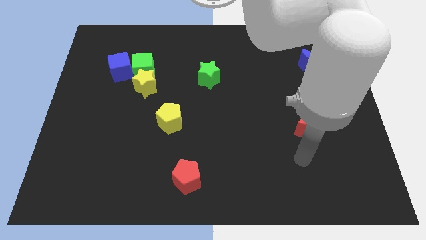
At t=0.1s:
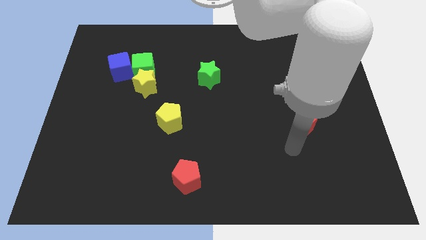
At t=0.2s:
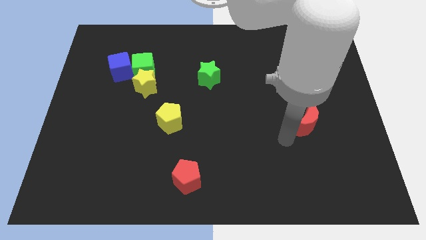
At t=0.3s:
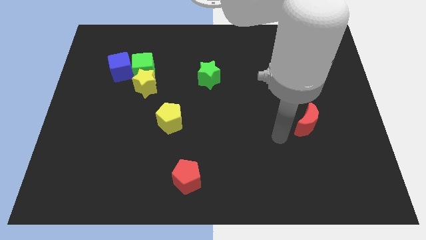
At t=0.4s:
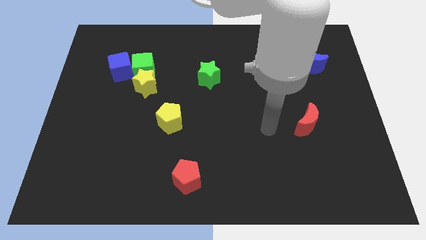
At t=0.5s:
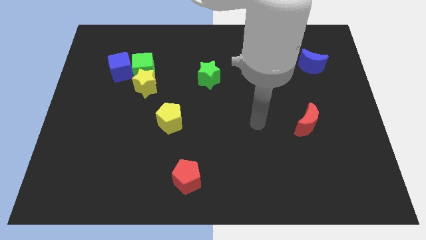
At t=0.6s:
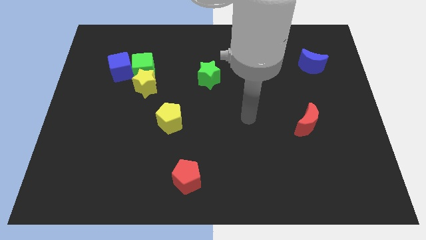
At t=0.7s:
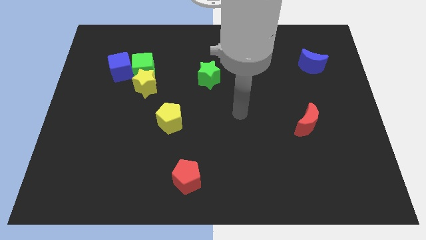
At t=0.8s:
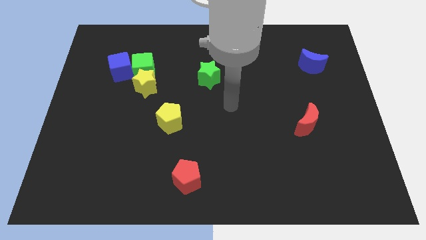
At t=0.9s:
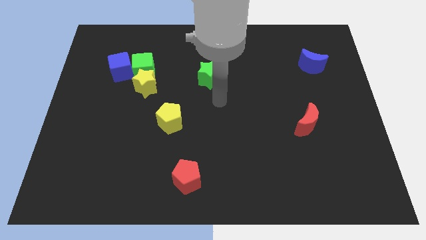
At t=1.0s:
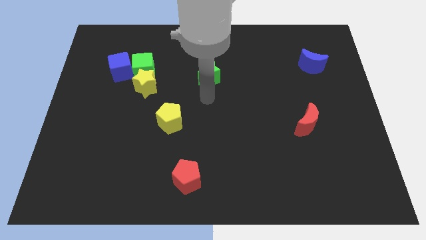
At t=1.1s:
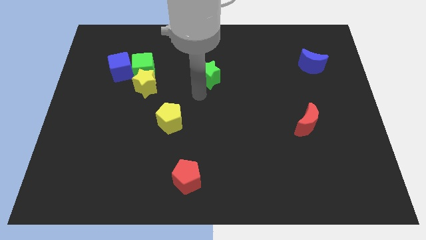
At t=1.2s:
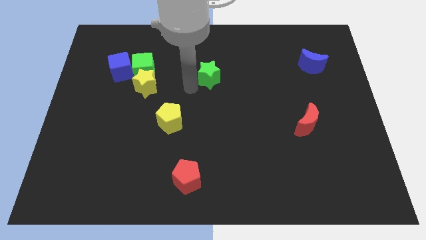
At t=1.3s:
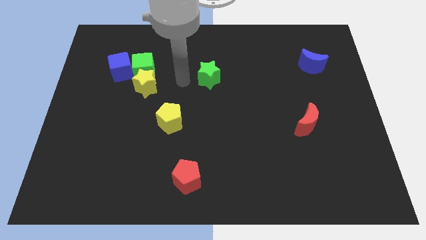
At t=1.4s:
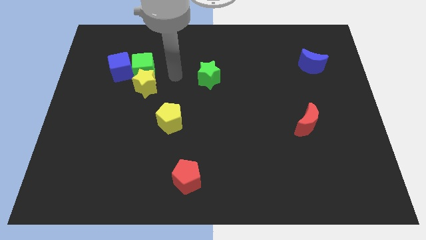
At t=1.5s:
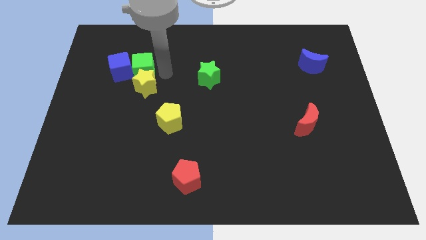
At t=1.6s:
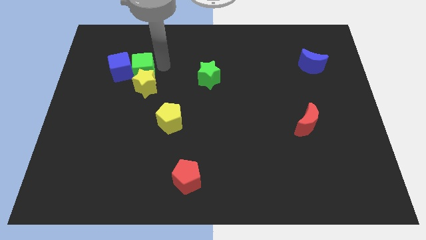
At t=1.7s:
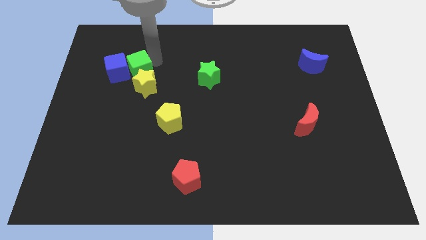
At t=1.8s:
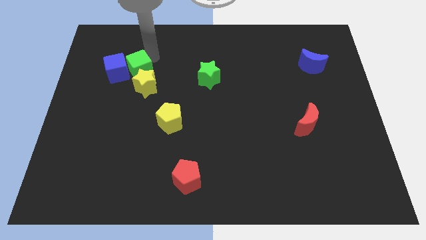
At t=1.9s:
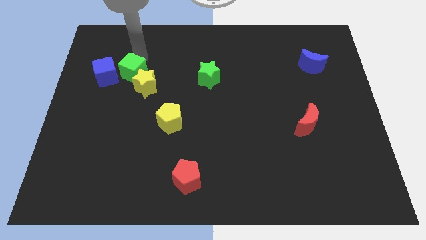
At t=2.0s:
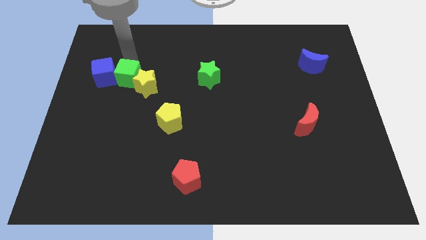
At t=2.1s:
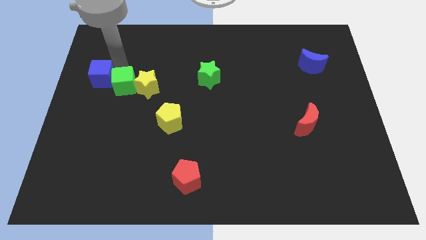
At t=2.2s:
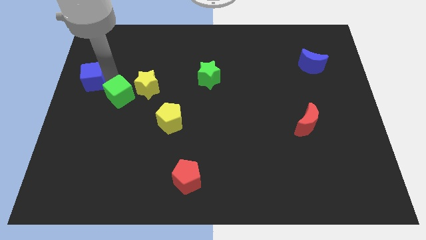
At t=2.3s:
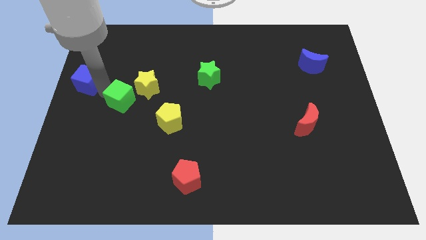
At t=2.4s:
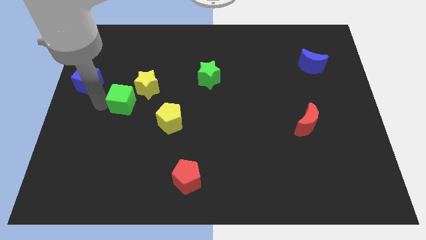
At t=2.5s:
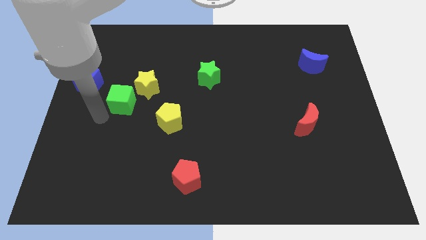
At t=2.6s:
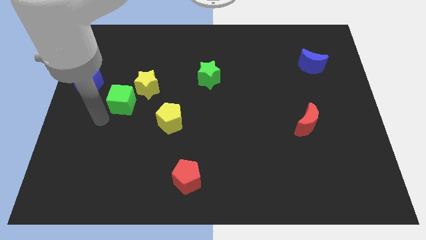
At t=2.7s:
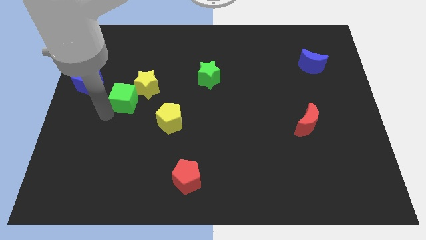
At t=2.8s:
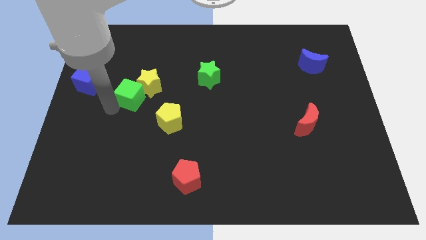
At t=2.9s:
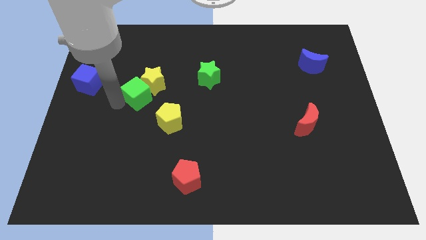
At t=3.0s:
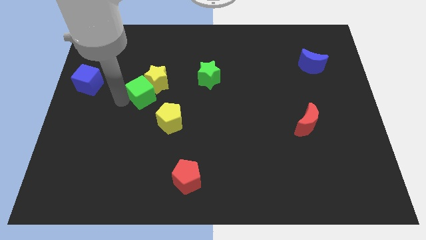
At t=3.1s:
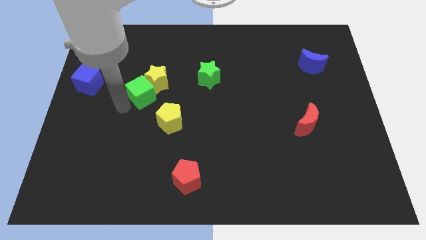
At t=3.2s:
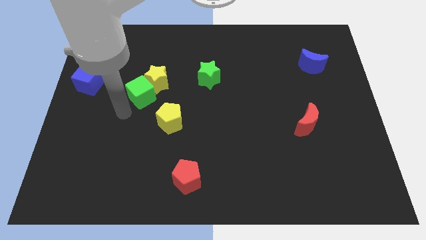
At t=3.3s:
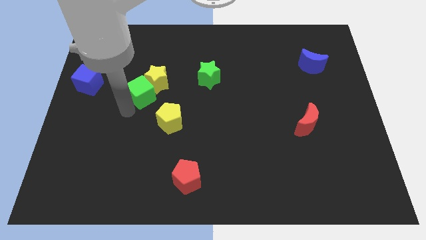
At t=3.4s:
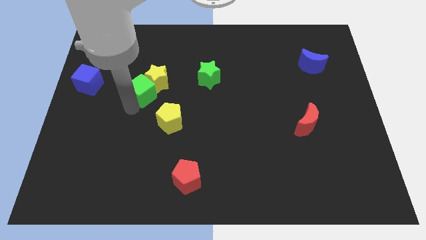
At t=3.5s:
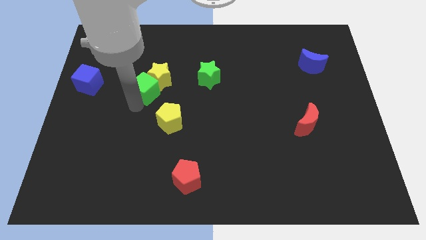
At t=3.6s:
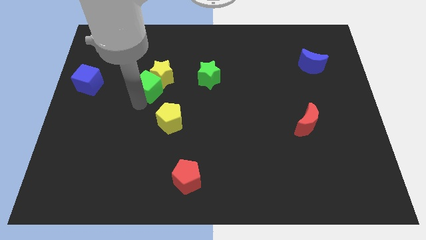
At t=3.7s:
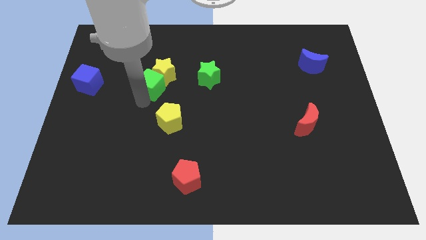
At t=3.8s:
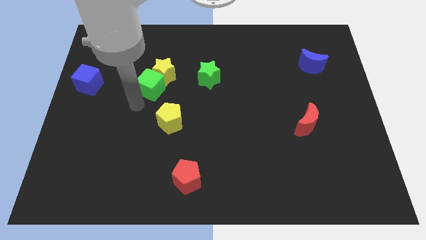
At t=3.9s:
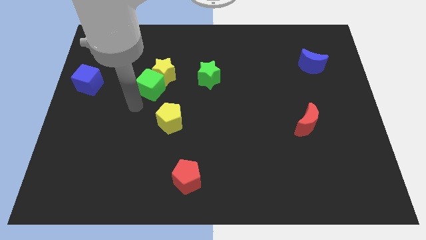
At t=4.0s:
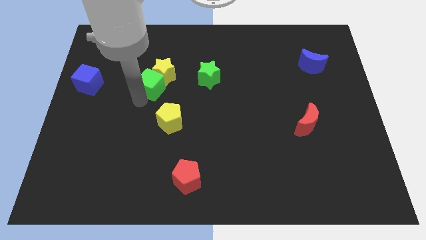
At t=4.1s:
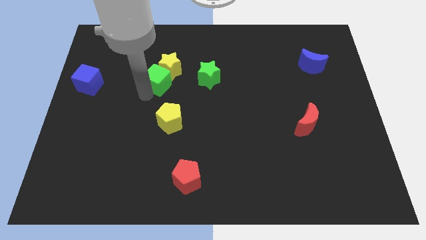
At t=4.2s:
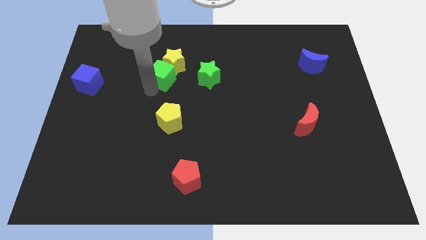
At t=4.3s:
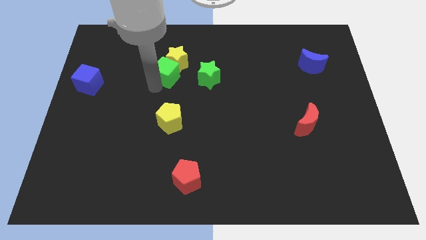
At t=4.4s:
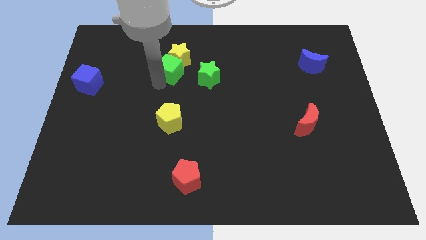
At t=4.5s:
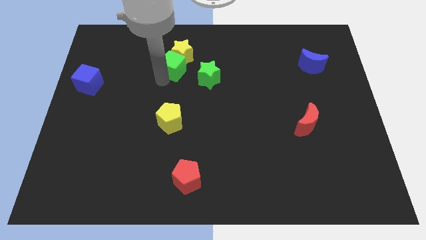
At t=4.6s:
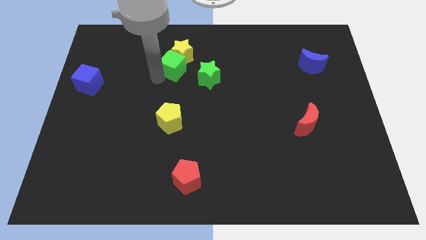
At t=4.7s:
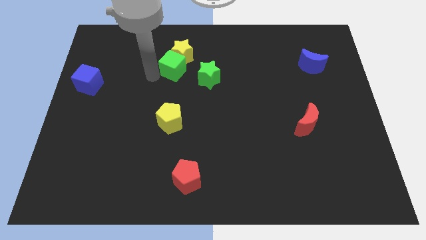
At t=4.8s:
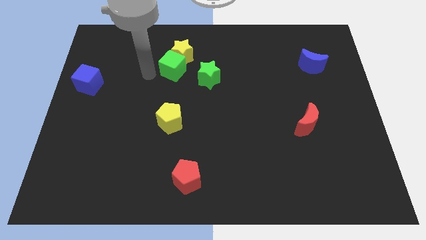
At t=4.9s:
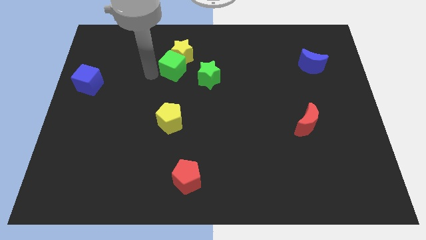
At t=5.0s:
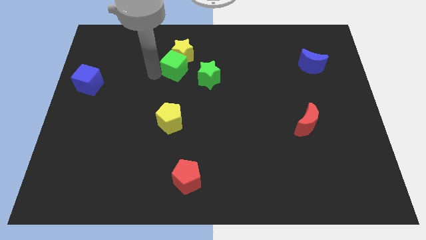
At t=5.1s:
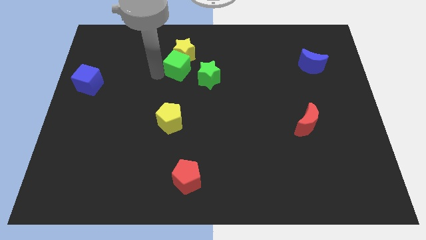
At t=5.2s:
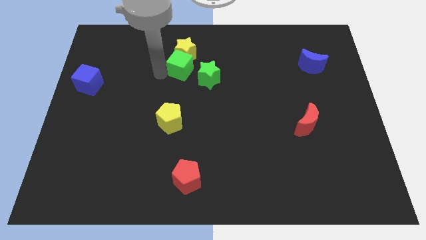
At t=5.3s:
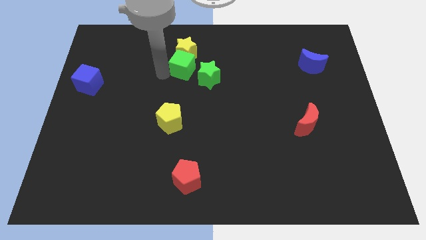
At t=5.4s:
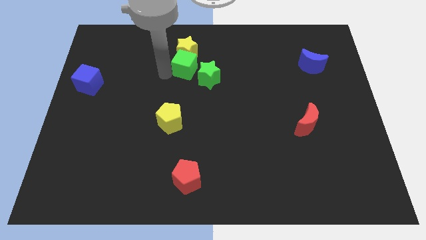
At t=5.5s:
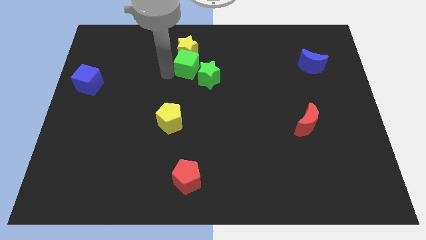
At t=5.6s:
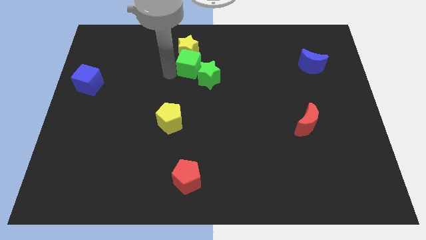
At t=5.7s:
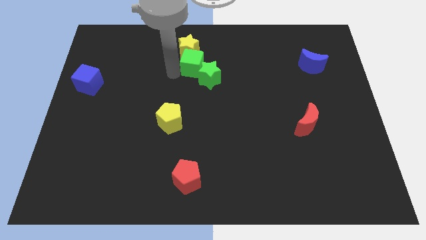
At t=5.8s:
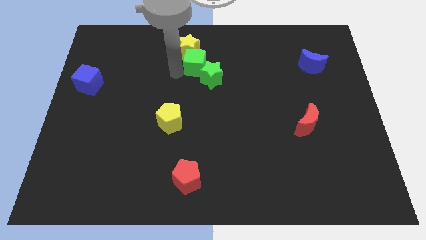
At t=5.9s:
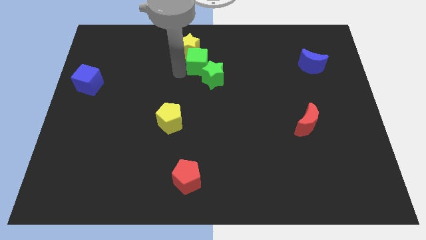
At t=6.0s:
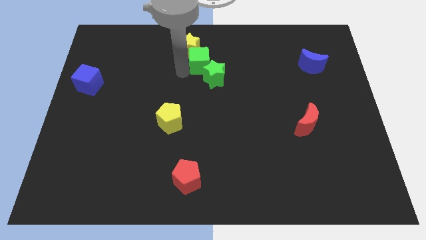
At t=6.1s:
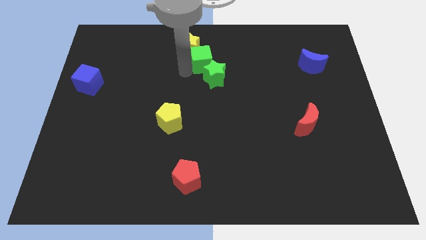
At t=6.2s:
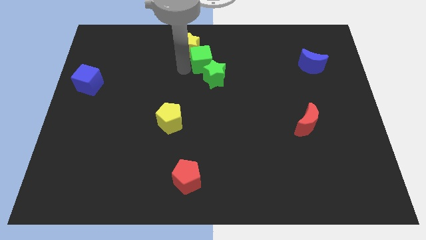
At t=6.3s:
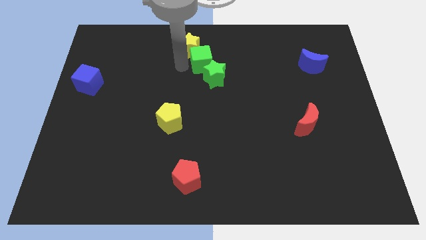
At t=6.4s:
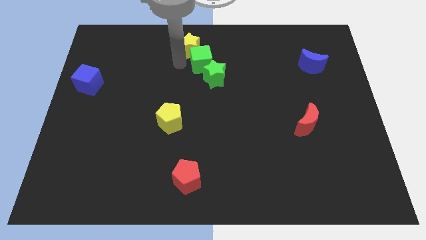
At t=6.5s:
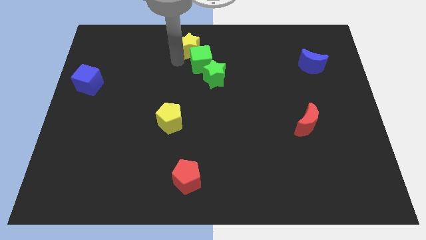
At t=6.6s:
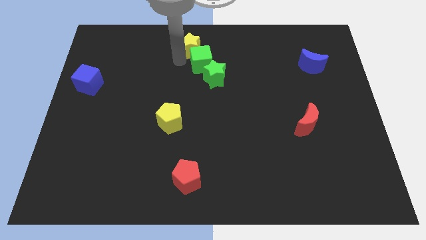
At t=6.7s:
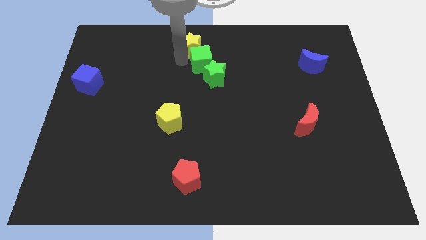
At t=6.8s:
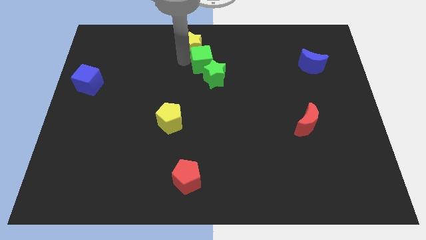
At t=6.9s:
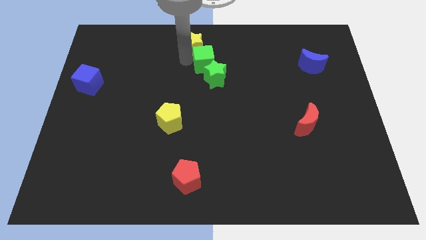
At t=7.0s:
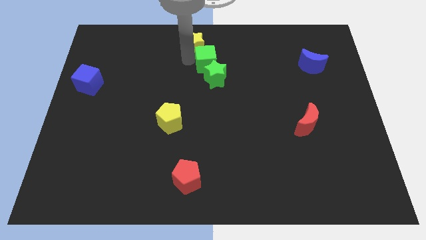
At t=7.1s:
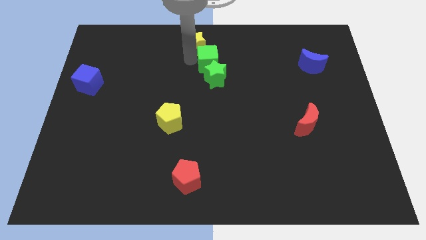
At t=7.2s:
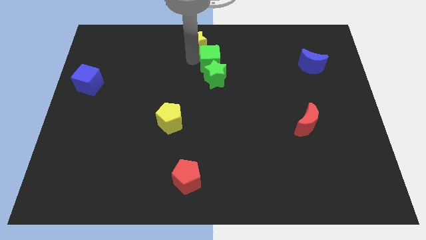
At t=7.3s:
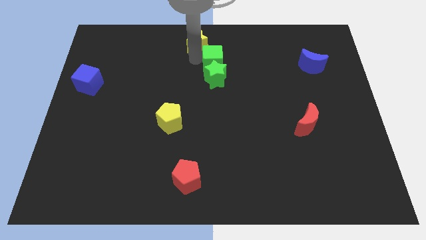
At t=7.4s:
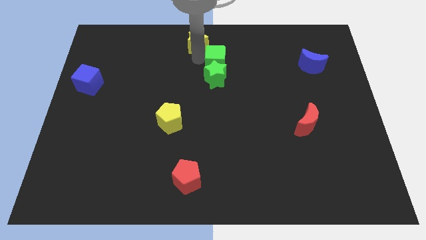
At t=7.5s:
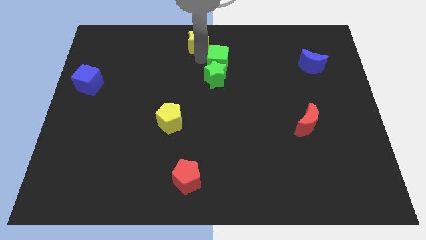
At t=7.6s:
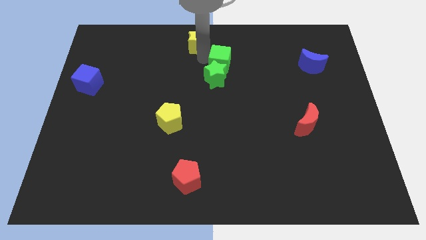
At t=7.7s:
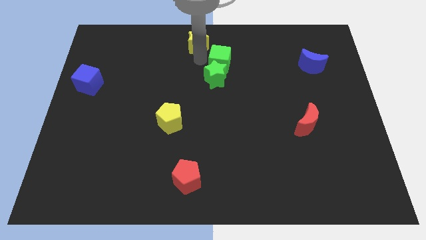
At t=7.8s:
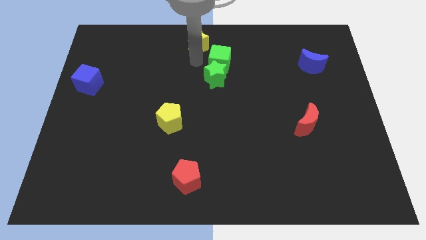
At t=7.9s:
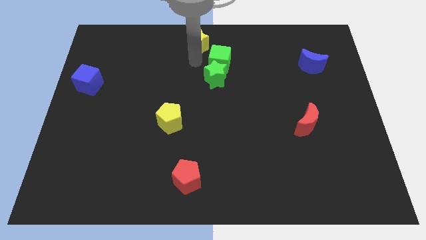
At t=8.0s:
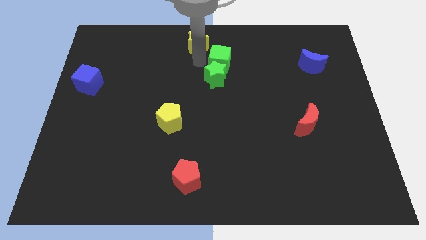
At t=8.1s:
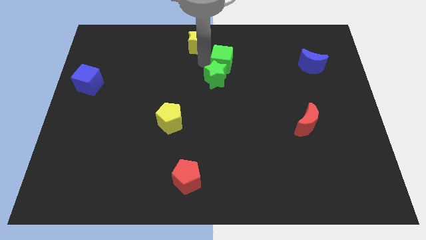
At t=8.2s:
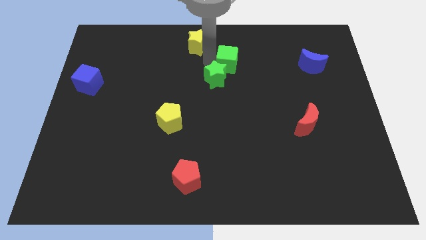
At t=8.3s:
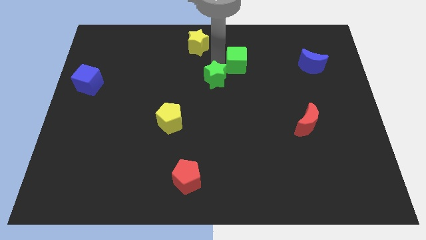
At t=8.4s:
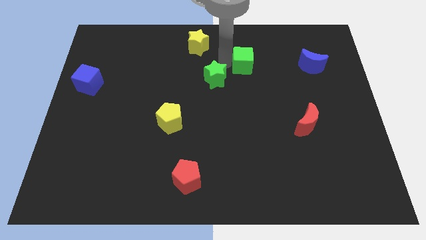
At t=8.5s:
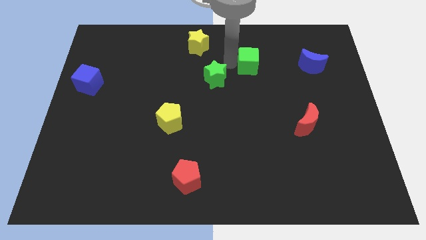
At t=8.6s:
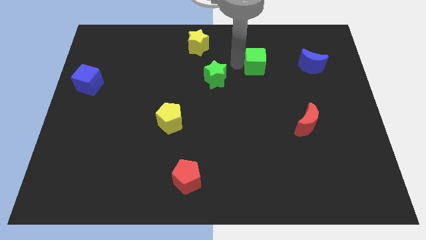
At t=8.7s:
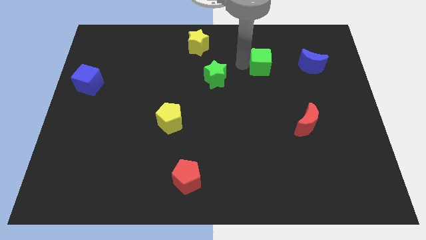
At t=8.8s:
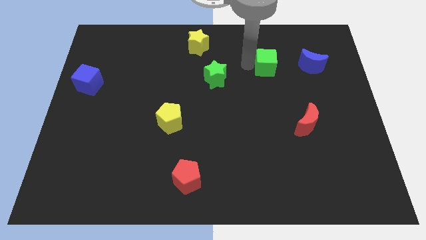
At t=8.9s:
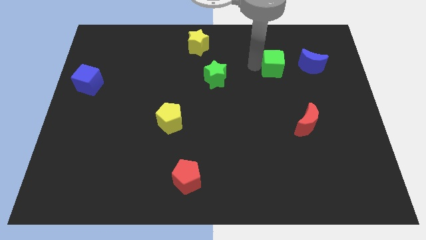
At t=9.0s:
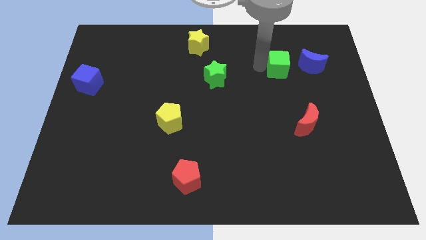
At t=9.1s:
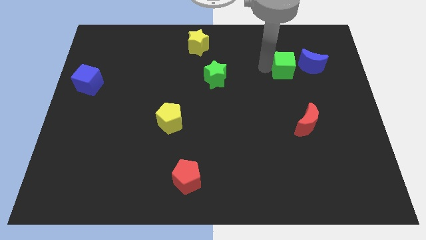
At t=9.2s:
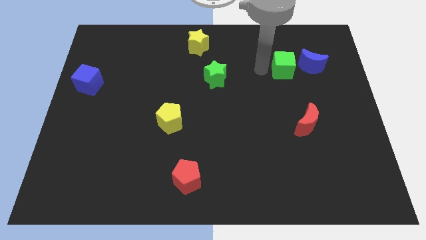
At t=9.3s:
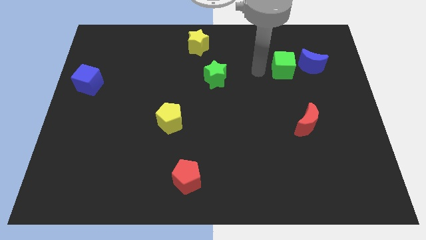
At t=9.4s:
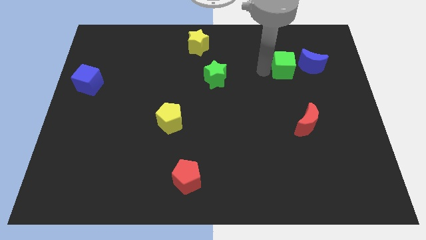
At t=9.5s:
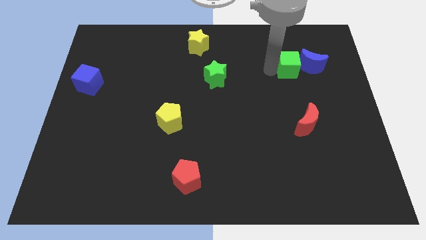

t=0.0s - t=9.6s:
put the green cube close to the blue moon
